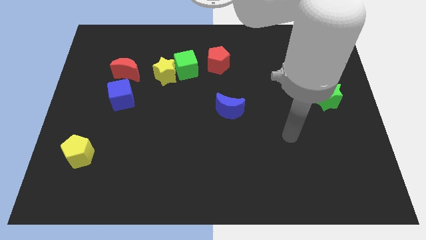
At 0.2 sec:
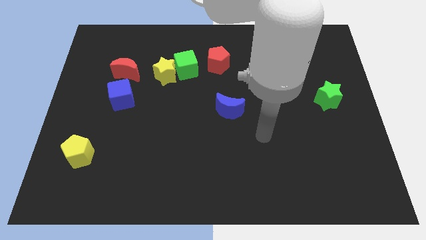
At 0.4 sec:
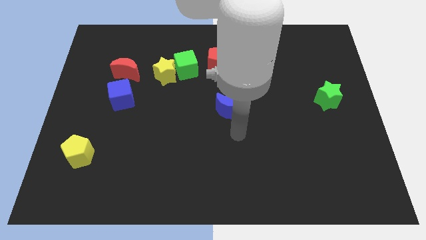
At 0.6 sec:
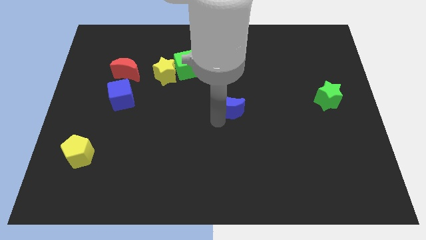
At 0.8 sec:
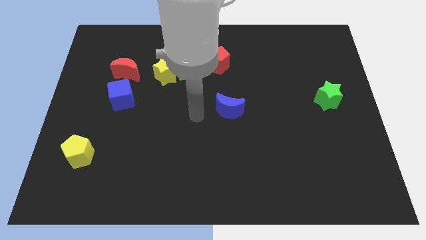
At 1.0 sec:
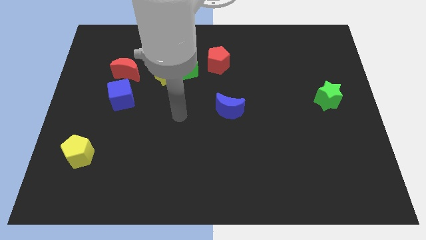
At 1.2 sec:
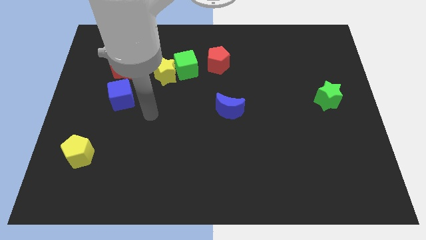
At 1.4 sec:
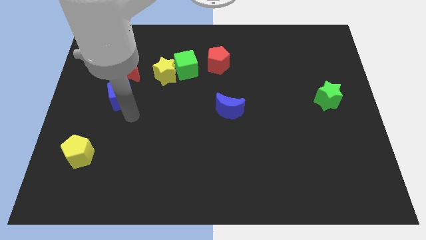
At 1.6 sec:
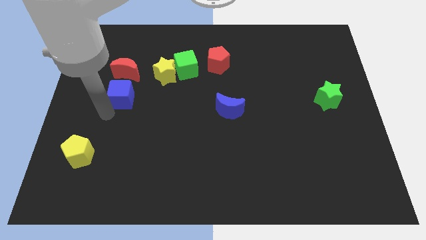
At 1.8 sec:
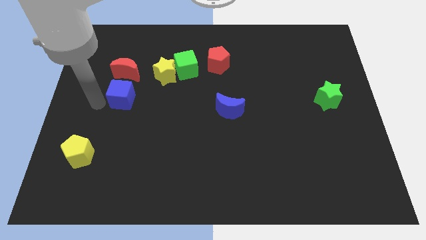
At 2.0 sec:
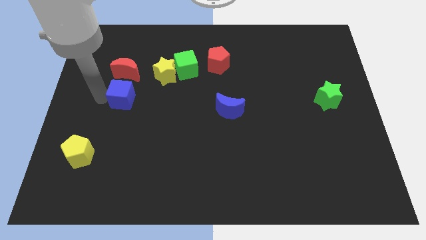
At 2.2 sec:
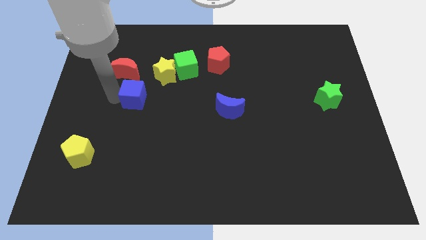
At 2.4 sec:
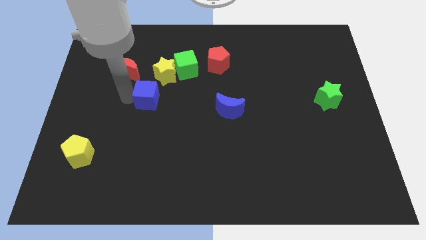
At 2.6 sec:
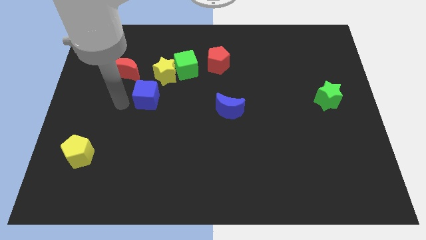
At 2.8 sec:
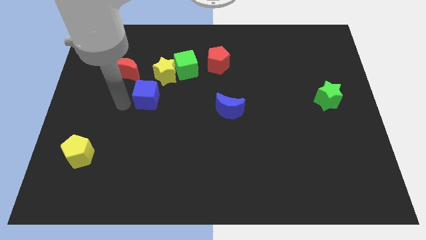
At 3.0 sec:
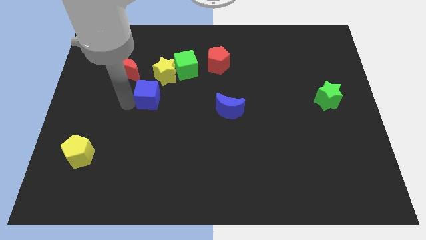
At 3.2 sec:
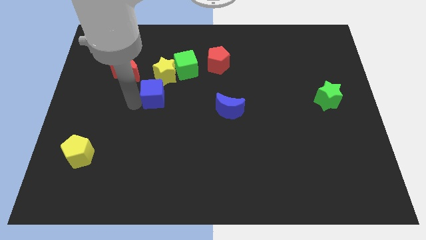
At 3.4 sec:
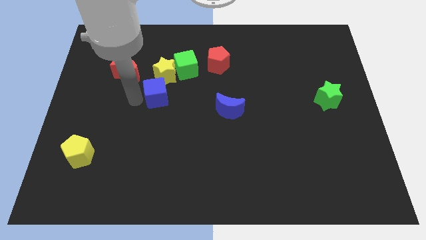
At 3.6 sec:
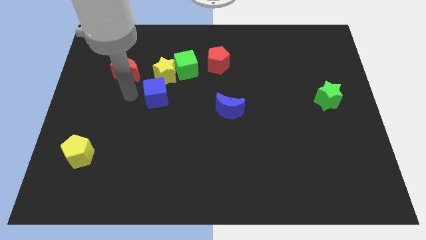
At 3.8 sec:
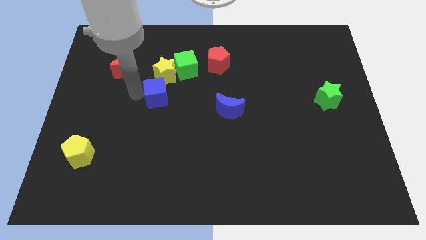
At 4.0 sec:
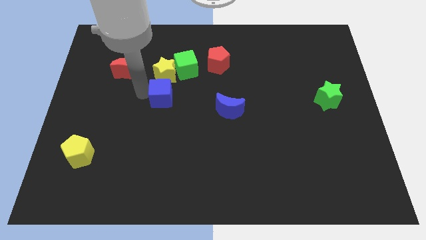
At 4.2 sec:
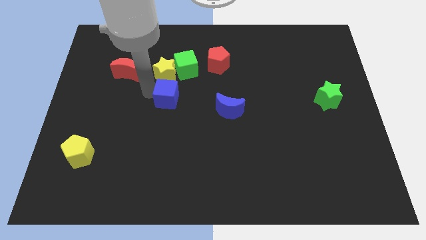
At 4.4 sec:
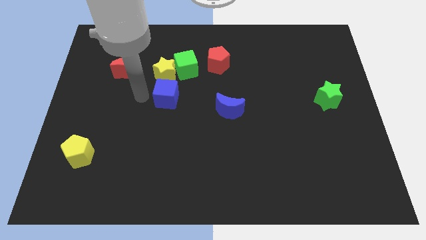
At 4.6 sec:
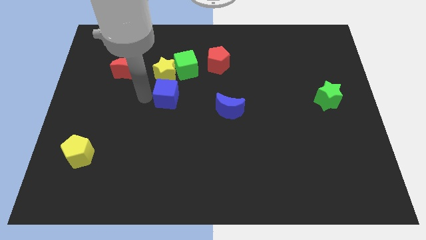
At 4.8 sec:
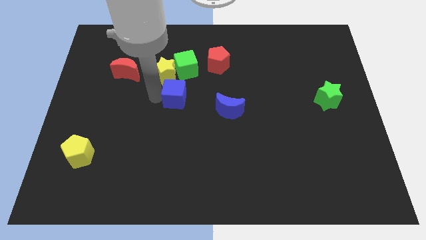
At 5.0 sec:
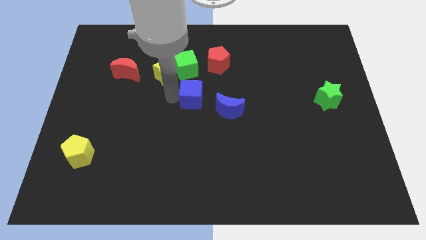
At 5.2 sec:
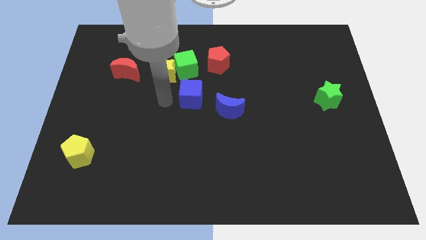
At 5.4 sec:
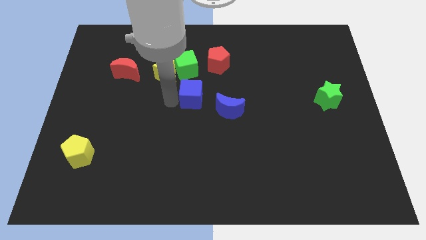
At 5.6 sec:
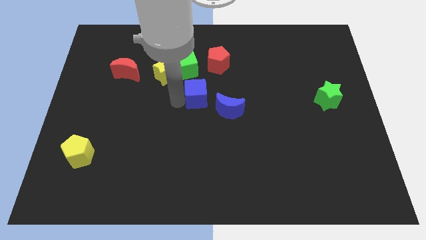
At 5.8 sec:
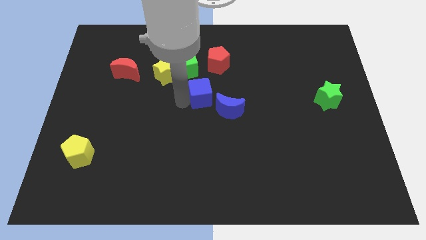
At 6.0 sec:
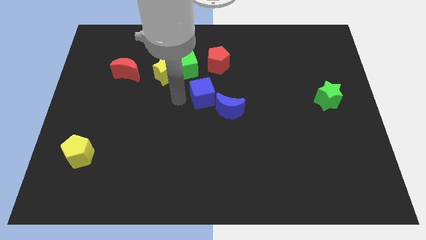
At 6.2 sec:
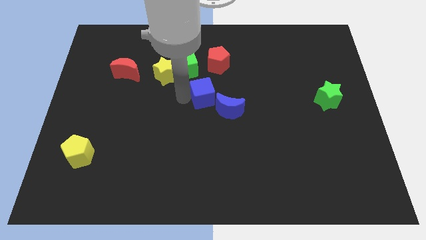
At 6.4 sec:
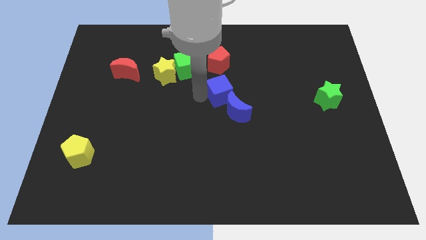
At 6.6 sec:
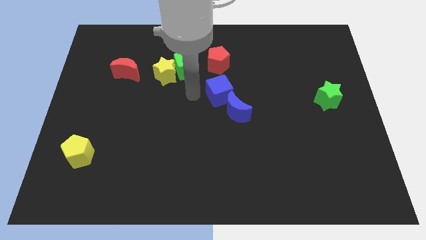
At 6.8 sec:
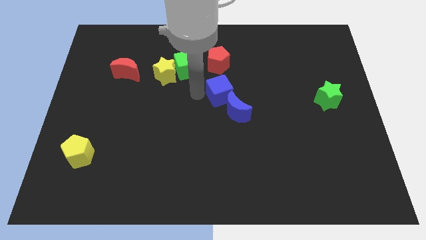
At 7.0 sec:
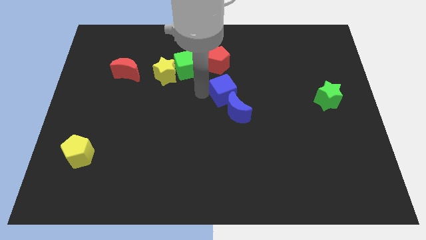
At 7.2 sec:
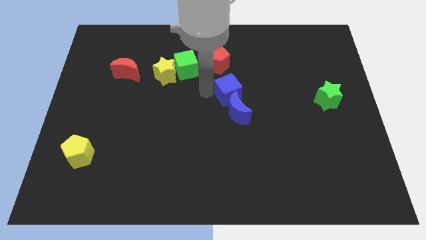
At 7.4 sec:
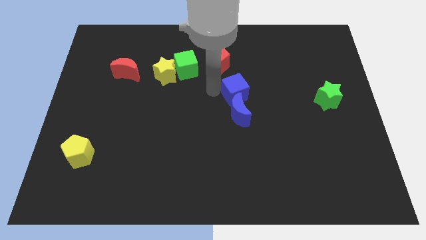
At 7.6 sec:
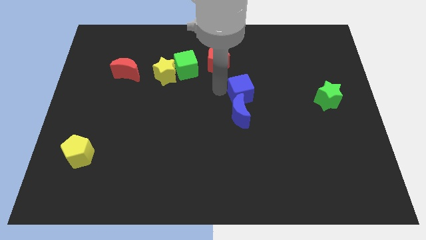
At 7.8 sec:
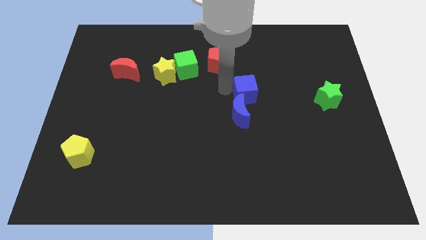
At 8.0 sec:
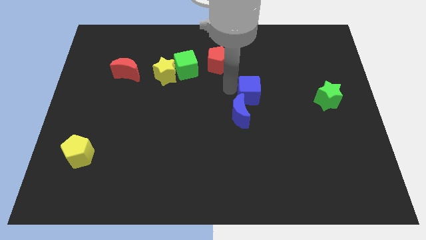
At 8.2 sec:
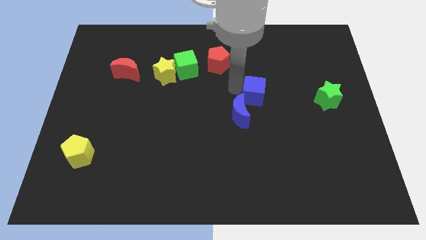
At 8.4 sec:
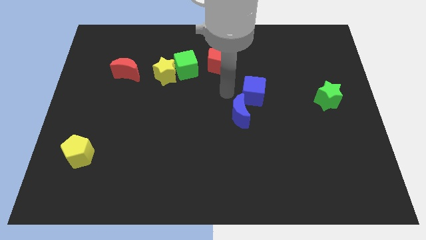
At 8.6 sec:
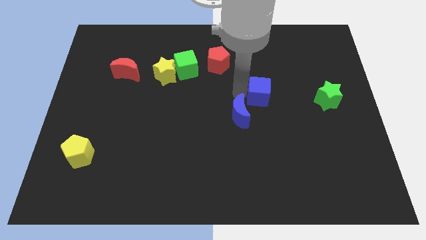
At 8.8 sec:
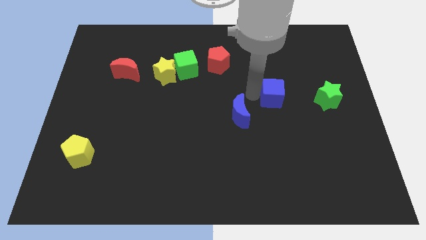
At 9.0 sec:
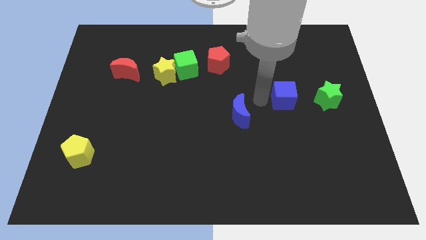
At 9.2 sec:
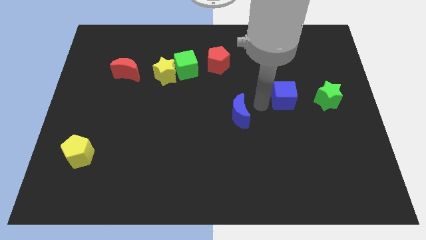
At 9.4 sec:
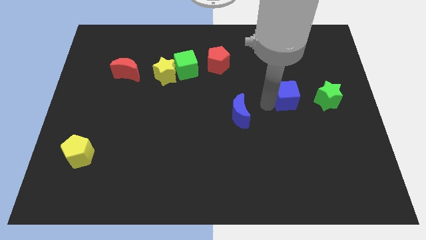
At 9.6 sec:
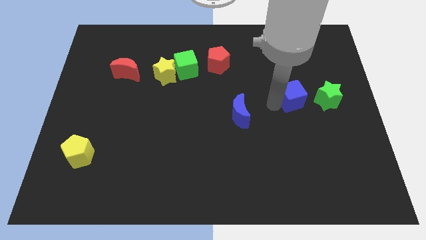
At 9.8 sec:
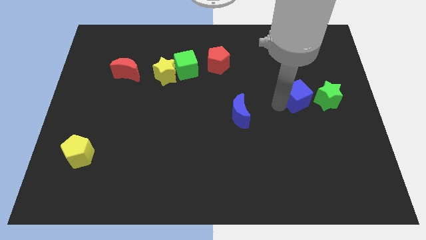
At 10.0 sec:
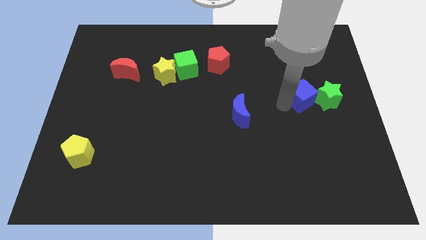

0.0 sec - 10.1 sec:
slide the blue cube next to the green star

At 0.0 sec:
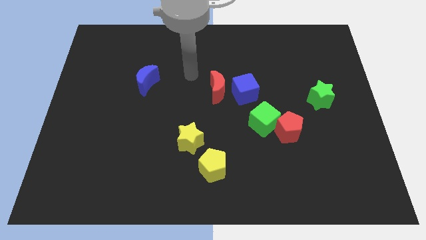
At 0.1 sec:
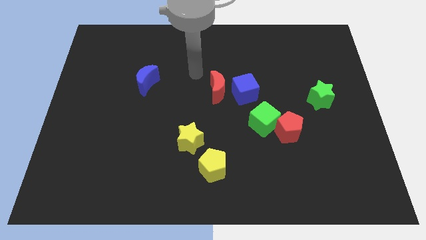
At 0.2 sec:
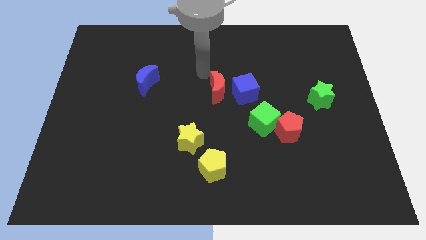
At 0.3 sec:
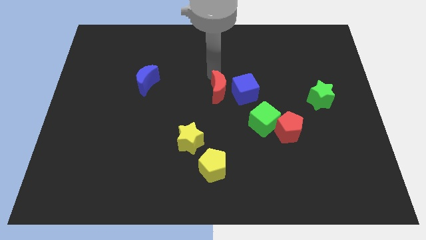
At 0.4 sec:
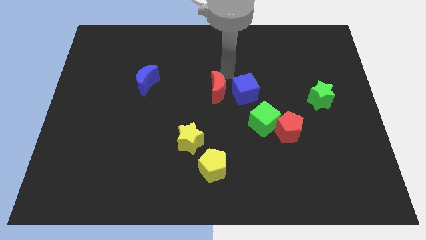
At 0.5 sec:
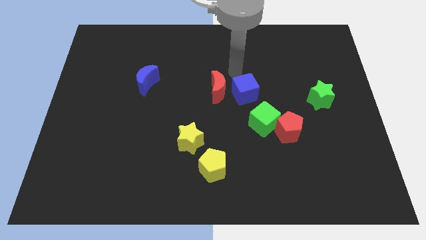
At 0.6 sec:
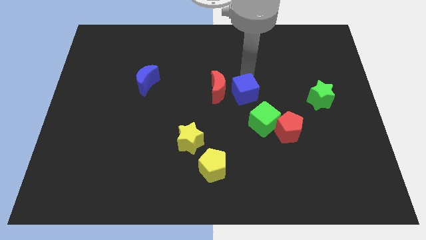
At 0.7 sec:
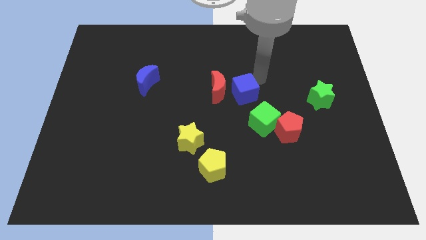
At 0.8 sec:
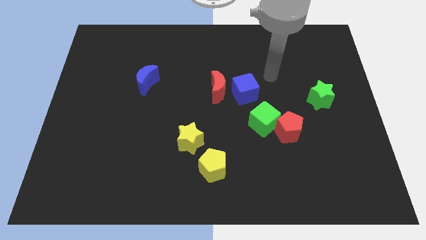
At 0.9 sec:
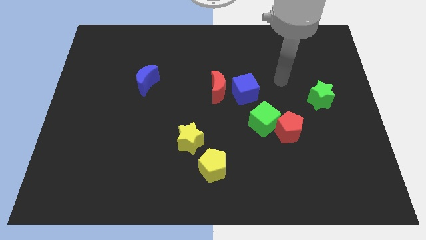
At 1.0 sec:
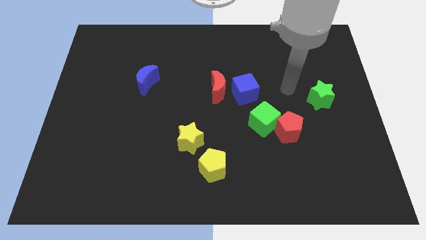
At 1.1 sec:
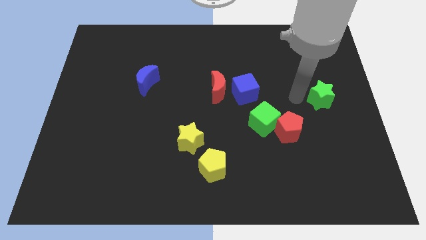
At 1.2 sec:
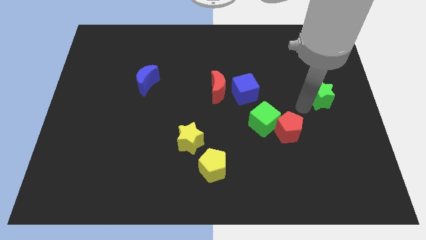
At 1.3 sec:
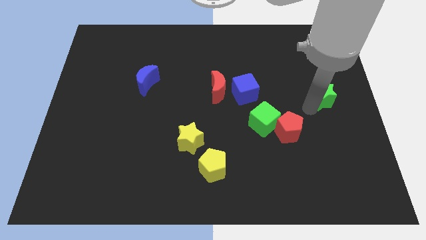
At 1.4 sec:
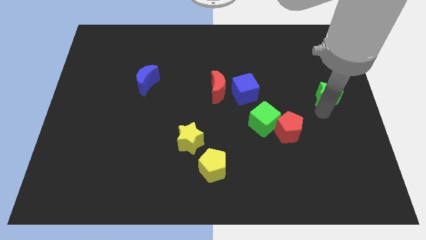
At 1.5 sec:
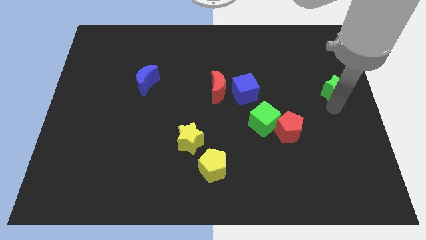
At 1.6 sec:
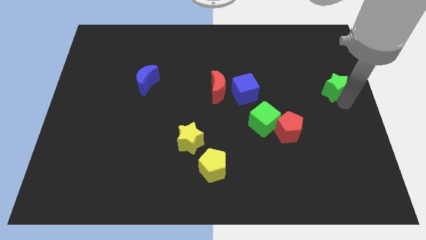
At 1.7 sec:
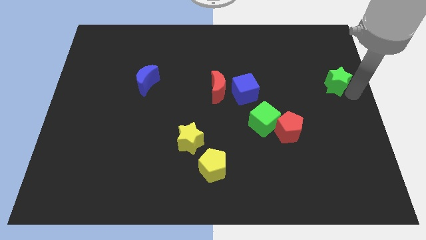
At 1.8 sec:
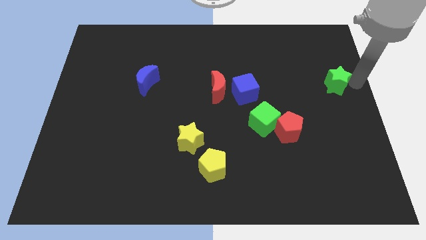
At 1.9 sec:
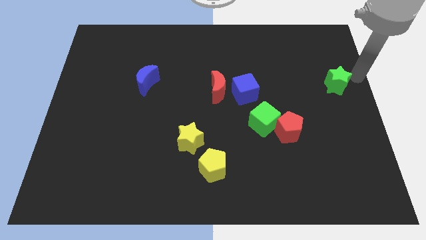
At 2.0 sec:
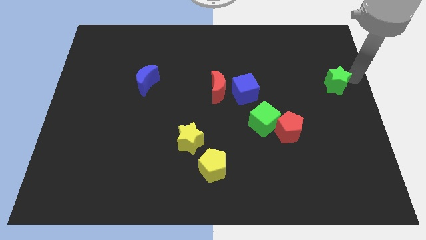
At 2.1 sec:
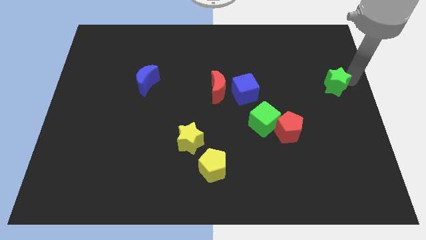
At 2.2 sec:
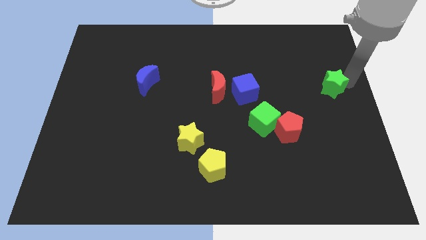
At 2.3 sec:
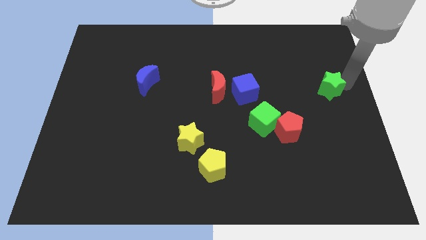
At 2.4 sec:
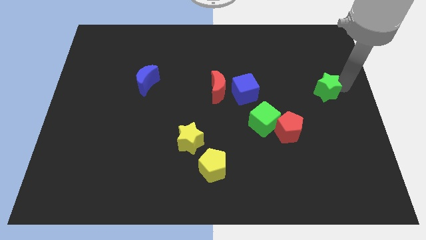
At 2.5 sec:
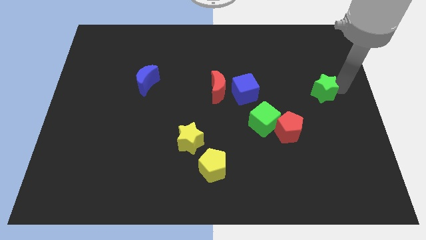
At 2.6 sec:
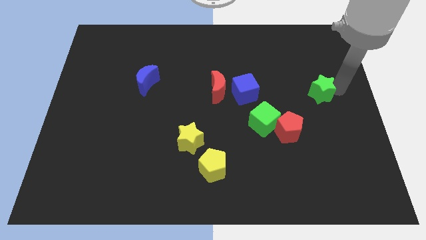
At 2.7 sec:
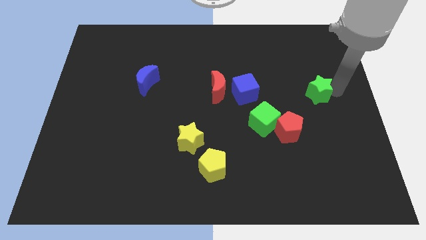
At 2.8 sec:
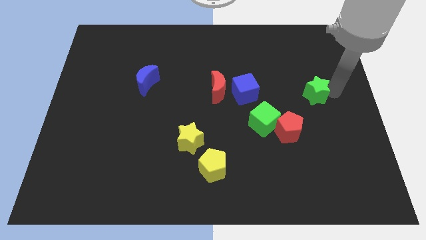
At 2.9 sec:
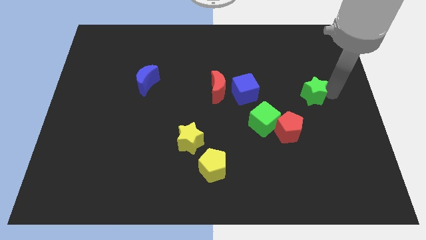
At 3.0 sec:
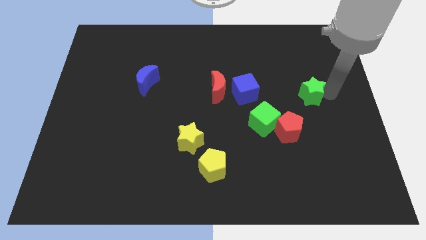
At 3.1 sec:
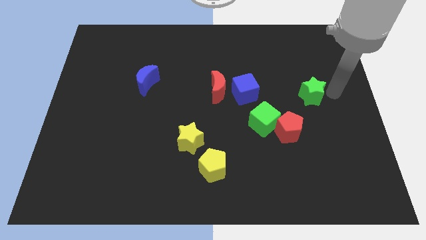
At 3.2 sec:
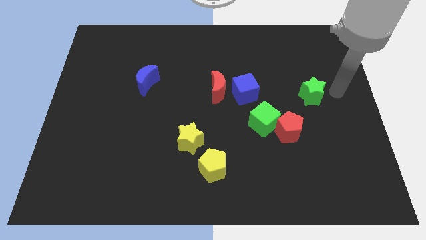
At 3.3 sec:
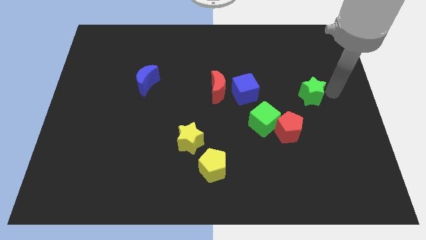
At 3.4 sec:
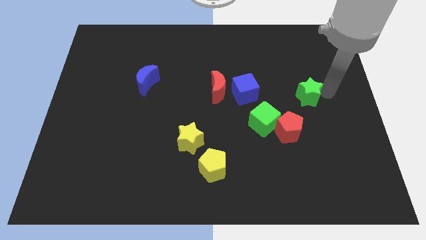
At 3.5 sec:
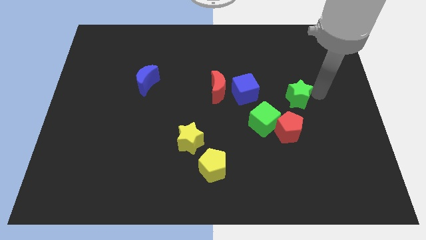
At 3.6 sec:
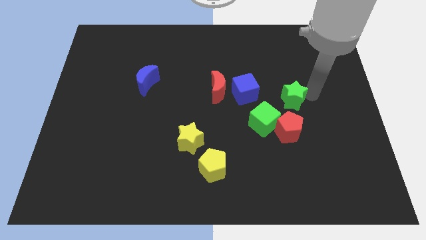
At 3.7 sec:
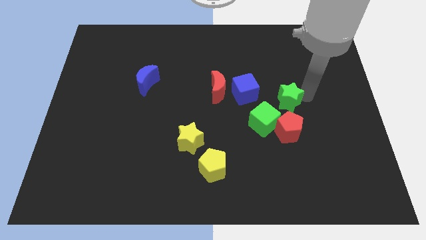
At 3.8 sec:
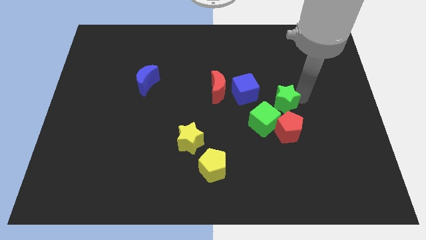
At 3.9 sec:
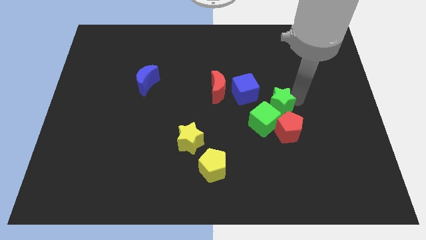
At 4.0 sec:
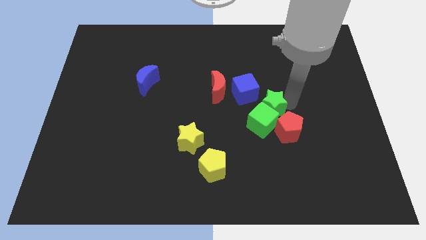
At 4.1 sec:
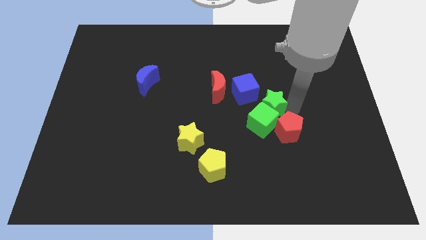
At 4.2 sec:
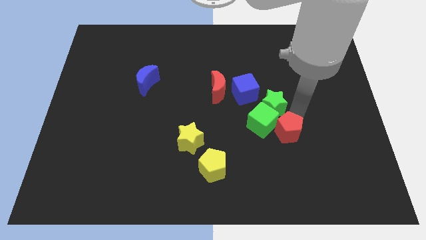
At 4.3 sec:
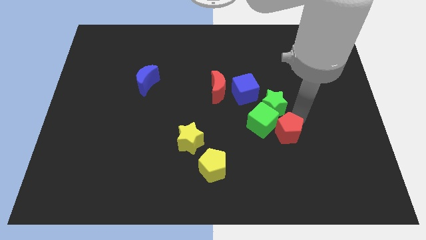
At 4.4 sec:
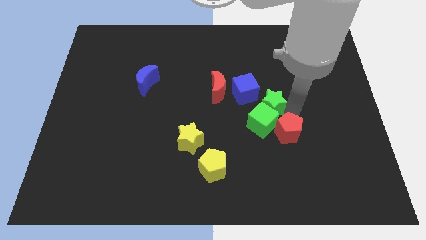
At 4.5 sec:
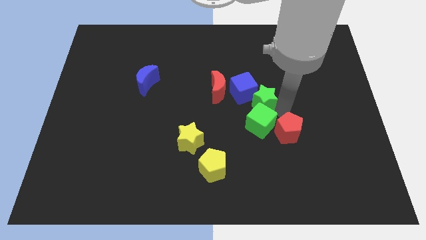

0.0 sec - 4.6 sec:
slide the green star to the blue cube
